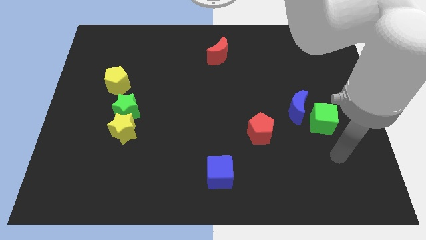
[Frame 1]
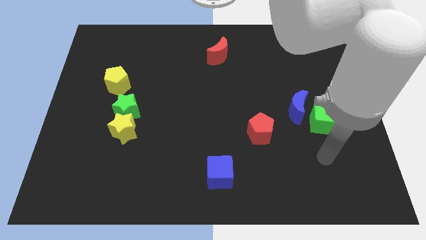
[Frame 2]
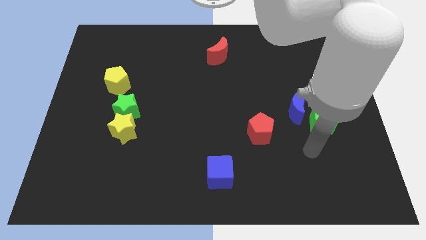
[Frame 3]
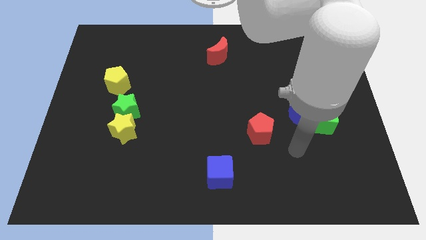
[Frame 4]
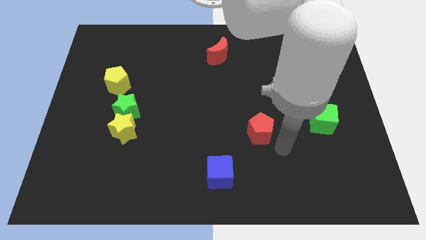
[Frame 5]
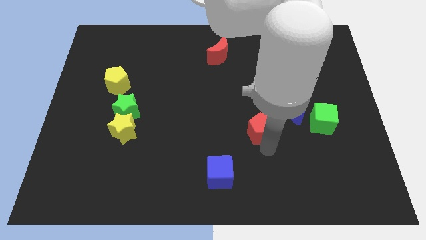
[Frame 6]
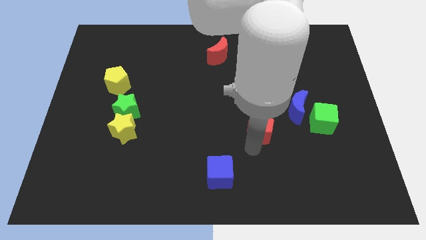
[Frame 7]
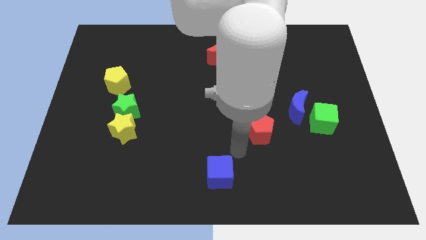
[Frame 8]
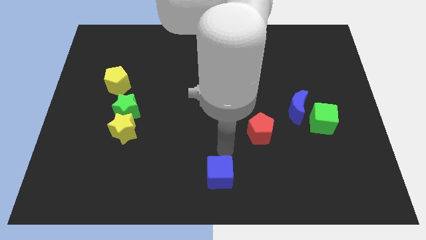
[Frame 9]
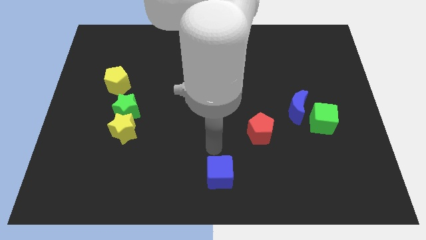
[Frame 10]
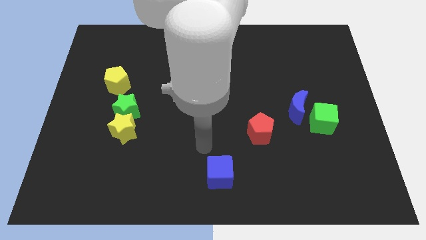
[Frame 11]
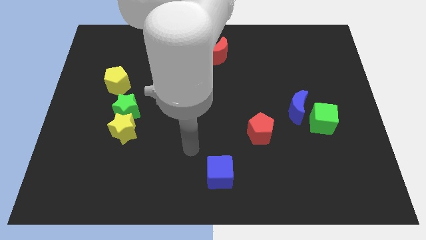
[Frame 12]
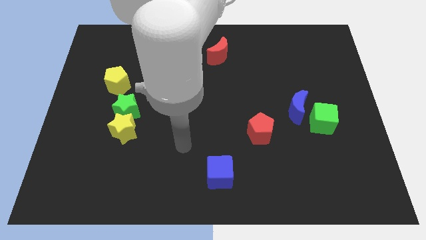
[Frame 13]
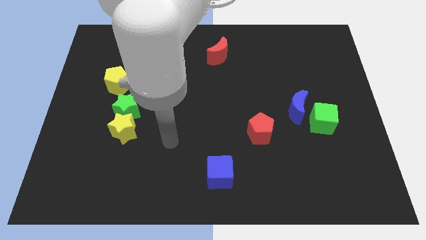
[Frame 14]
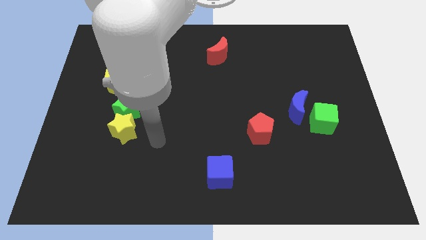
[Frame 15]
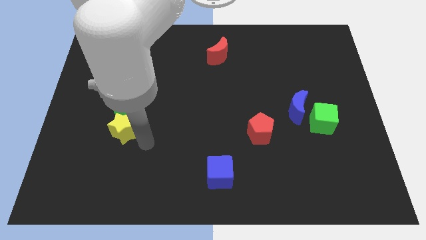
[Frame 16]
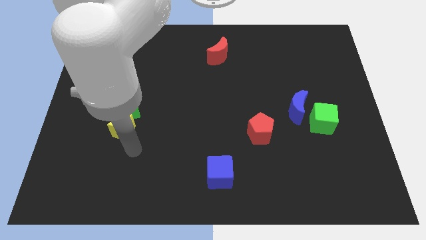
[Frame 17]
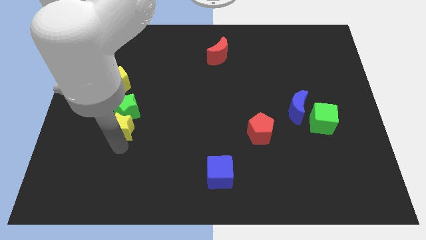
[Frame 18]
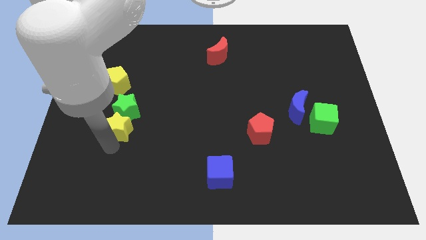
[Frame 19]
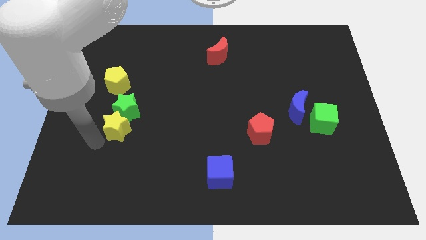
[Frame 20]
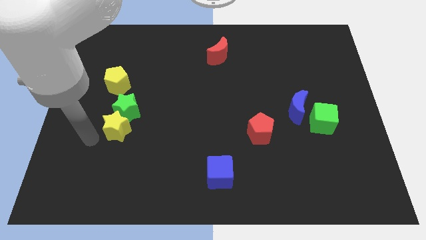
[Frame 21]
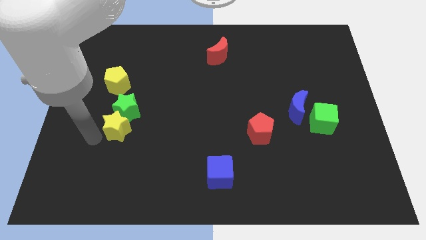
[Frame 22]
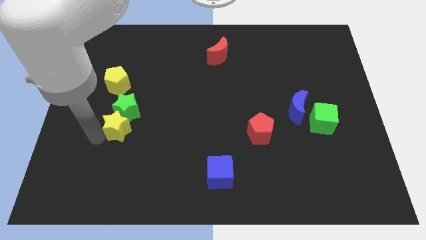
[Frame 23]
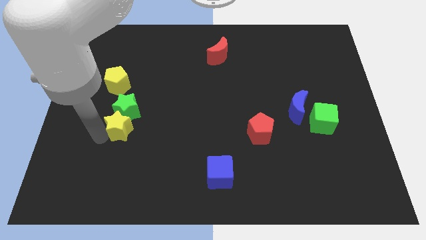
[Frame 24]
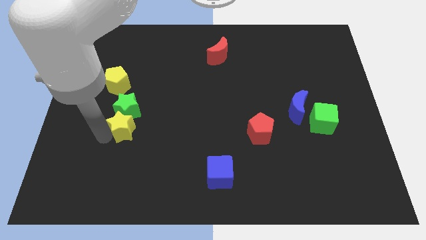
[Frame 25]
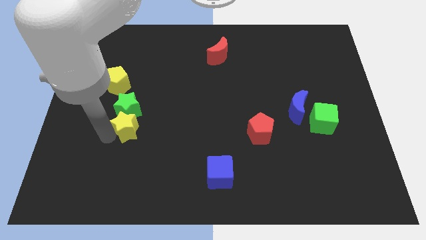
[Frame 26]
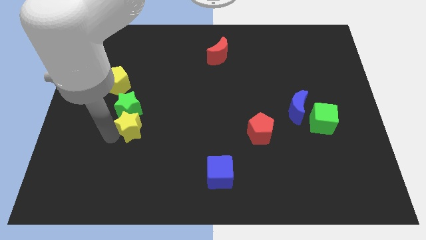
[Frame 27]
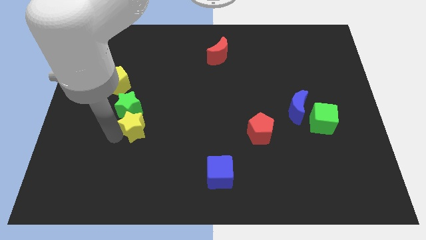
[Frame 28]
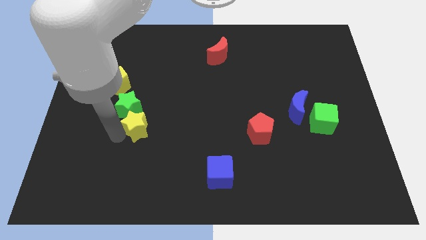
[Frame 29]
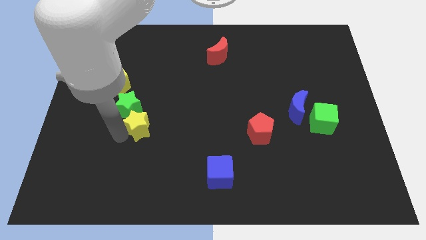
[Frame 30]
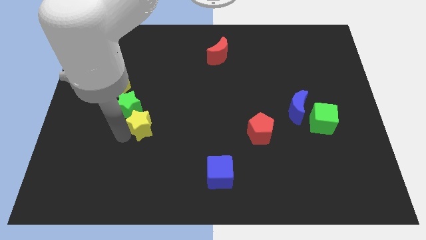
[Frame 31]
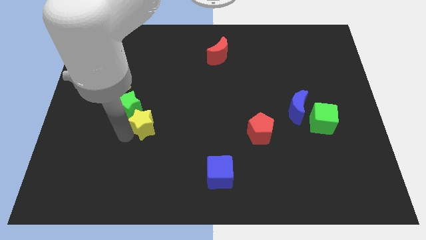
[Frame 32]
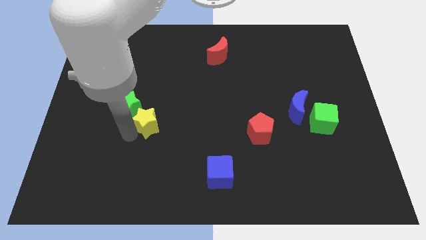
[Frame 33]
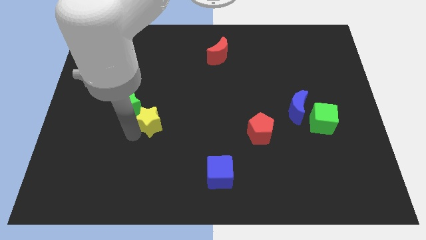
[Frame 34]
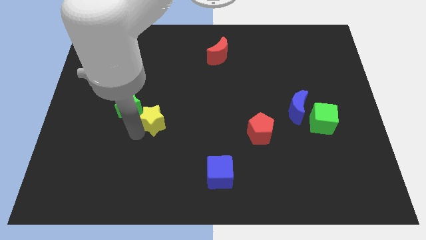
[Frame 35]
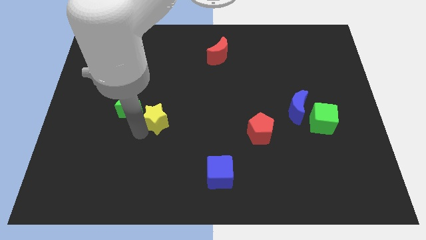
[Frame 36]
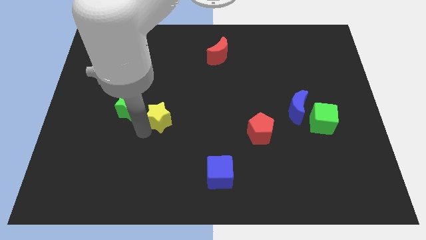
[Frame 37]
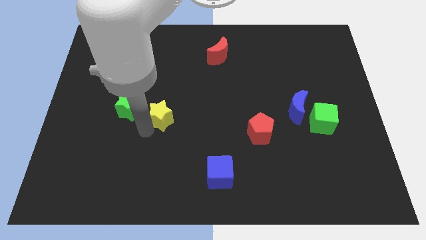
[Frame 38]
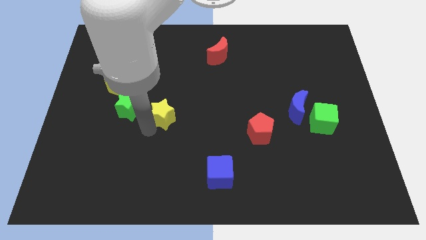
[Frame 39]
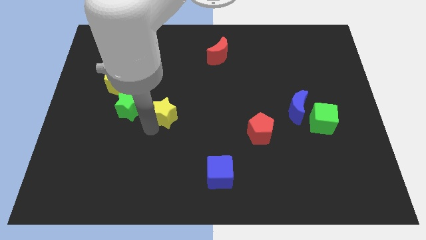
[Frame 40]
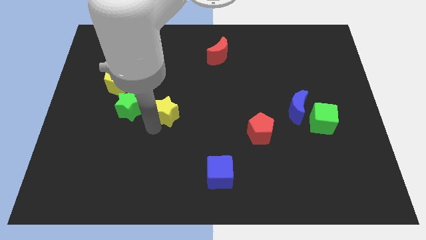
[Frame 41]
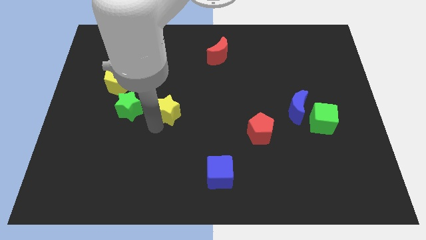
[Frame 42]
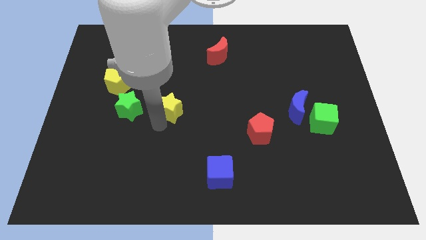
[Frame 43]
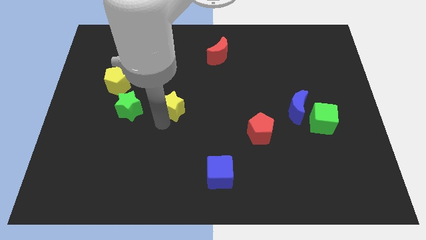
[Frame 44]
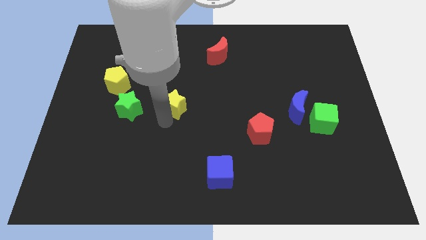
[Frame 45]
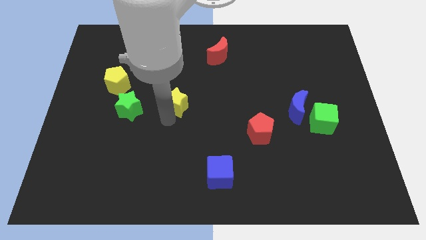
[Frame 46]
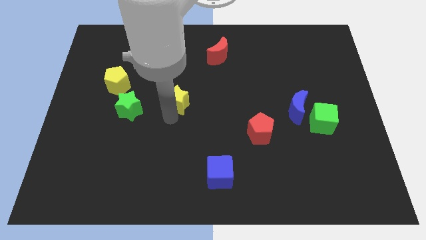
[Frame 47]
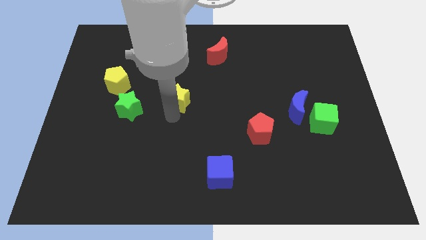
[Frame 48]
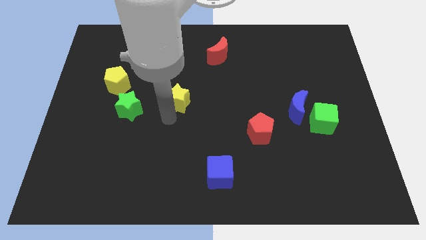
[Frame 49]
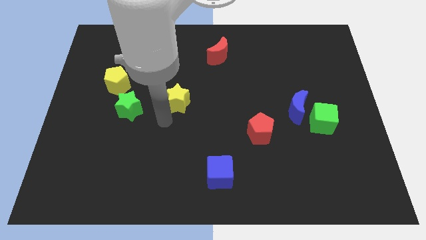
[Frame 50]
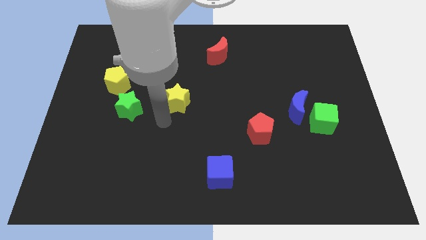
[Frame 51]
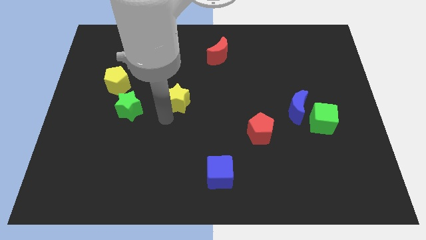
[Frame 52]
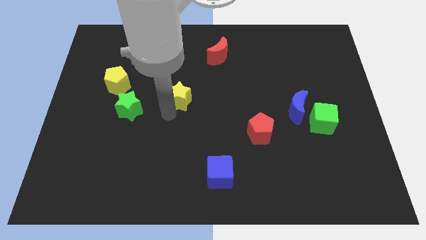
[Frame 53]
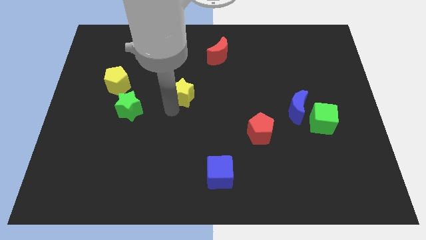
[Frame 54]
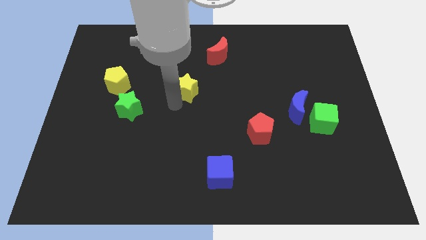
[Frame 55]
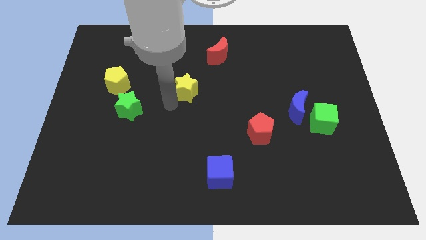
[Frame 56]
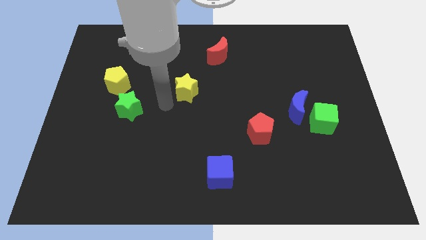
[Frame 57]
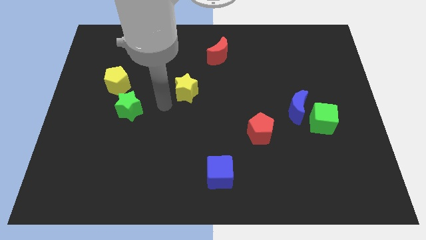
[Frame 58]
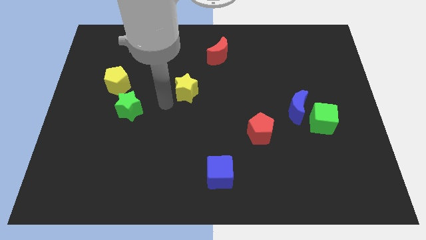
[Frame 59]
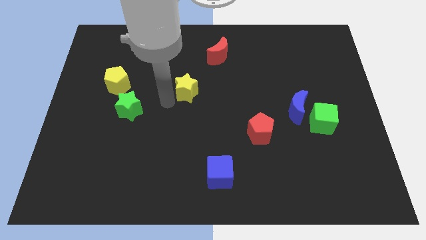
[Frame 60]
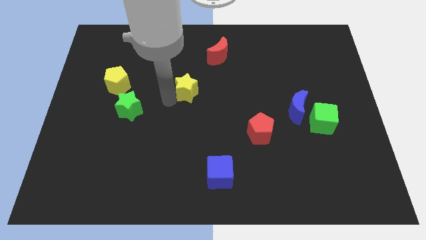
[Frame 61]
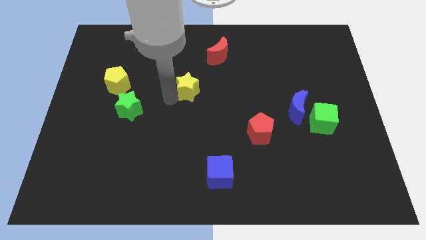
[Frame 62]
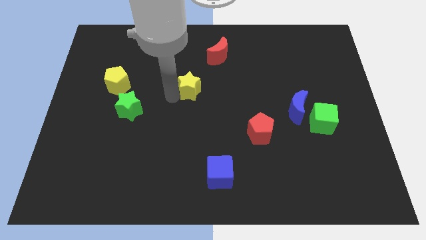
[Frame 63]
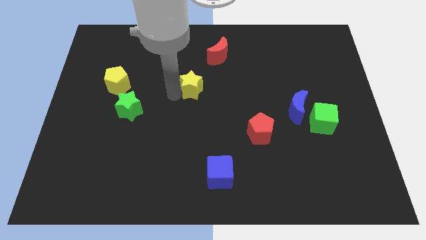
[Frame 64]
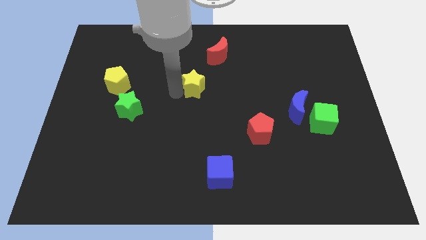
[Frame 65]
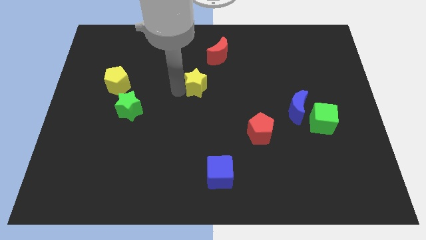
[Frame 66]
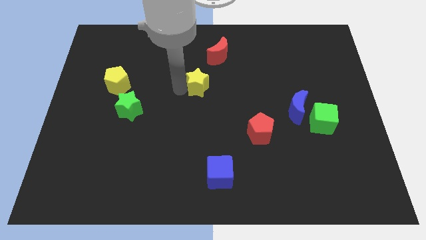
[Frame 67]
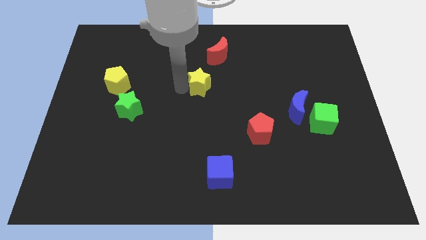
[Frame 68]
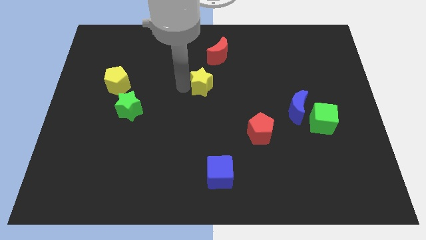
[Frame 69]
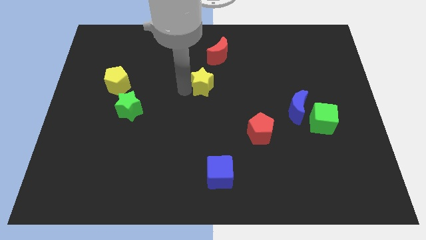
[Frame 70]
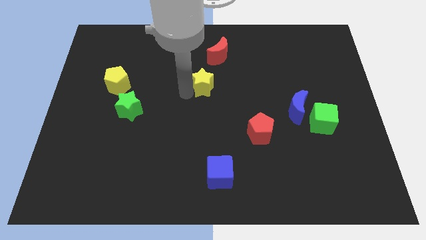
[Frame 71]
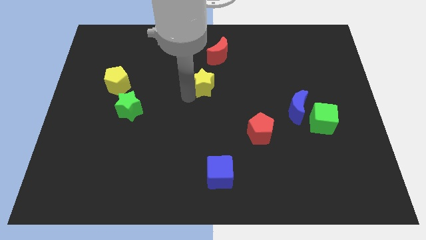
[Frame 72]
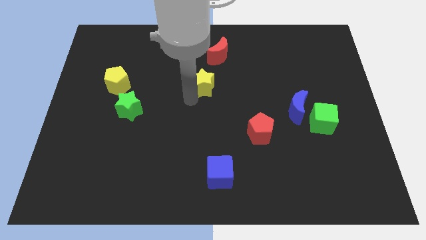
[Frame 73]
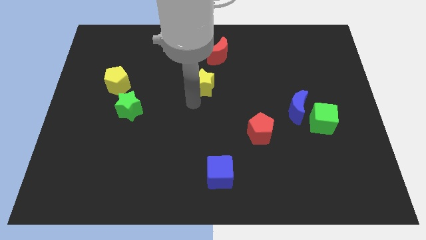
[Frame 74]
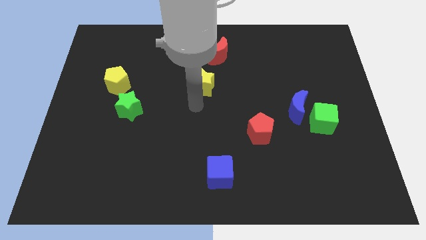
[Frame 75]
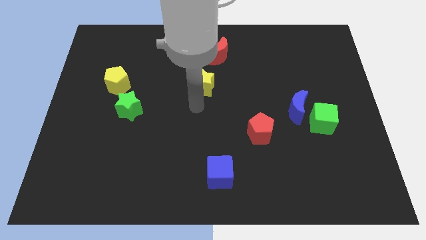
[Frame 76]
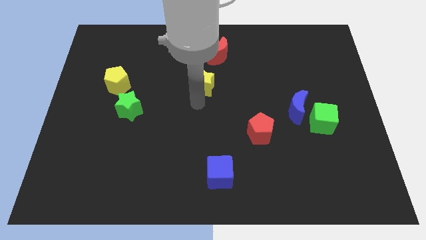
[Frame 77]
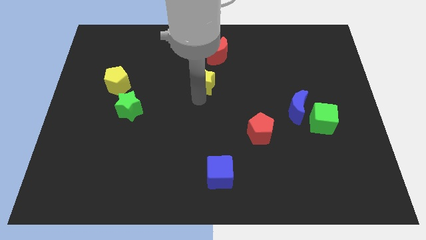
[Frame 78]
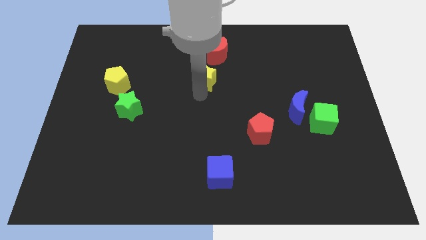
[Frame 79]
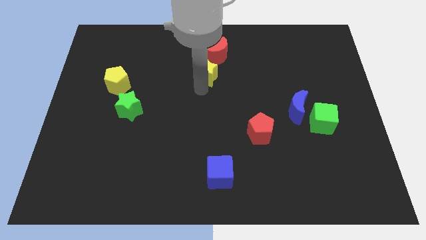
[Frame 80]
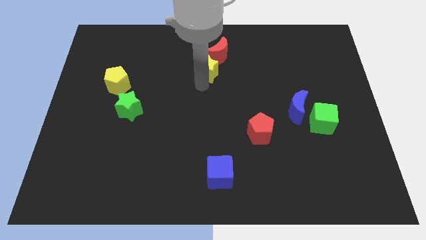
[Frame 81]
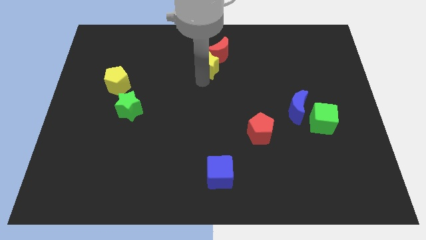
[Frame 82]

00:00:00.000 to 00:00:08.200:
slide the yellow star to the red moon
